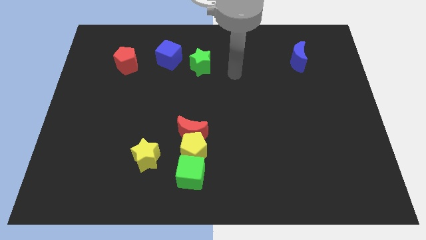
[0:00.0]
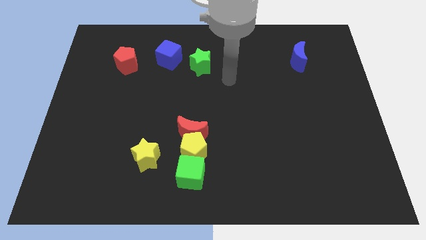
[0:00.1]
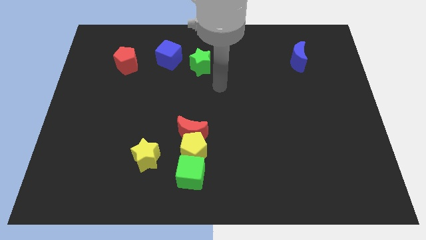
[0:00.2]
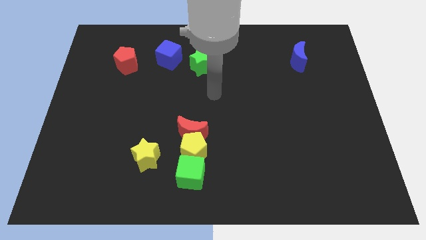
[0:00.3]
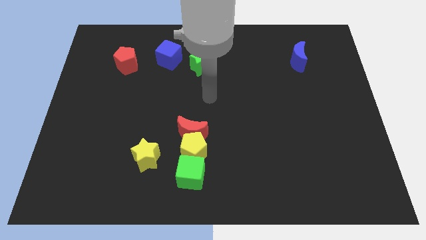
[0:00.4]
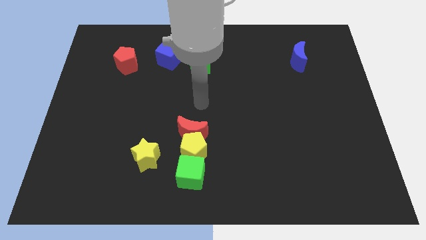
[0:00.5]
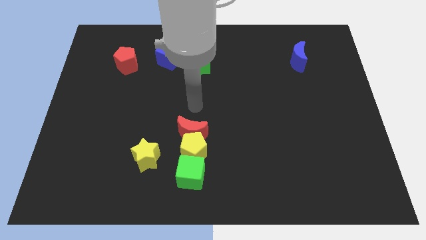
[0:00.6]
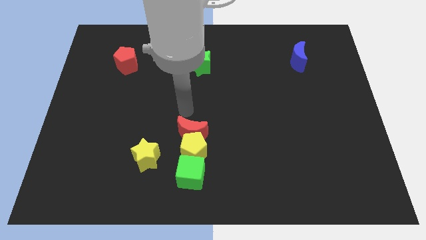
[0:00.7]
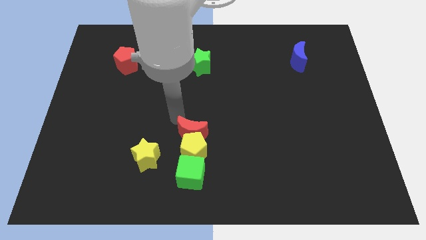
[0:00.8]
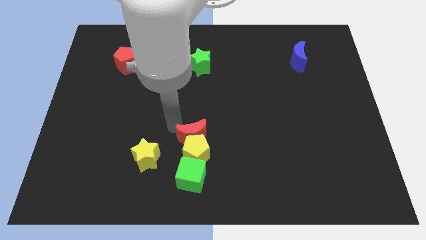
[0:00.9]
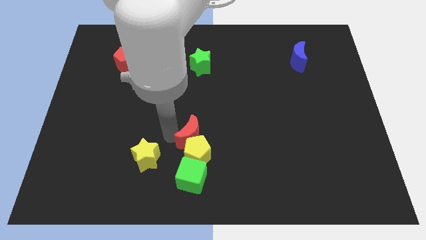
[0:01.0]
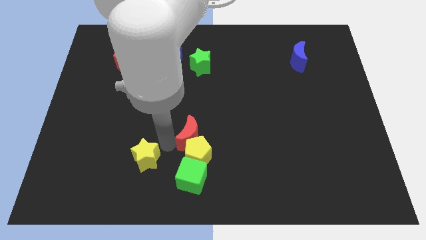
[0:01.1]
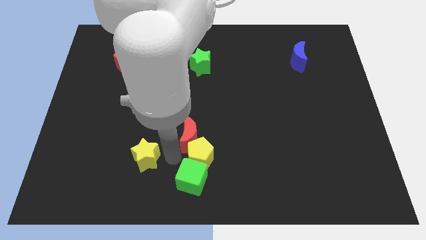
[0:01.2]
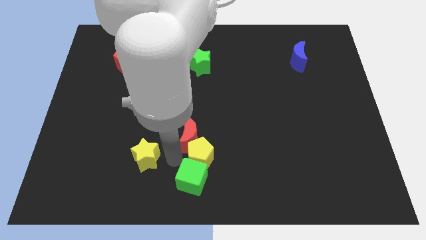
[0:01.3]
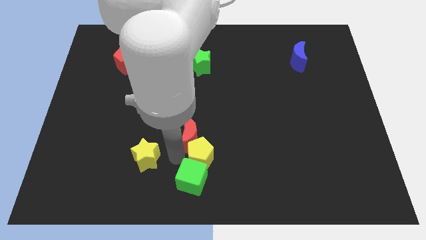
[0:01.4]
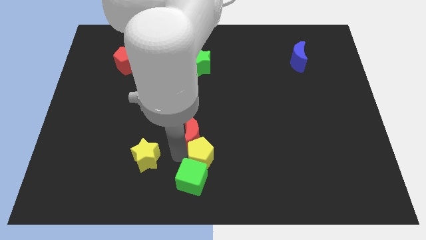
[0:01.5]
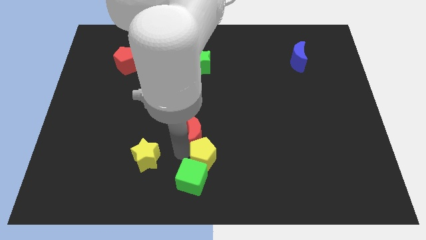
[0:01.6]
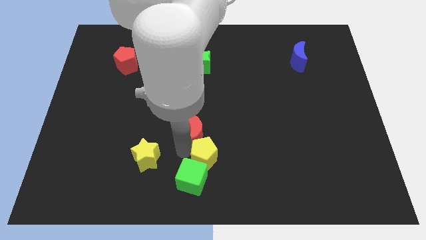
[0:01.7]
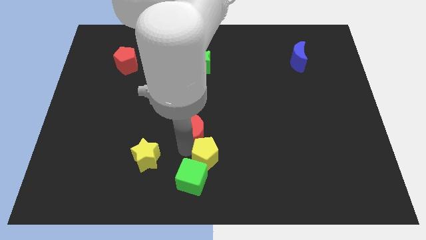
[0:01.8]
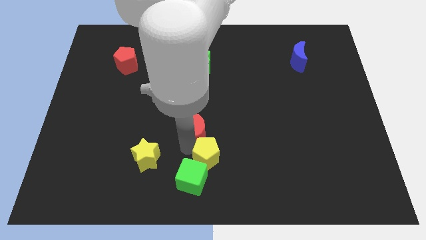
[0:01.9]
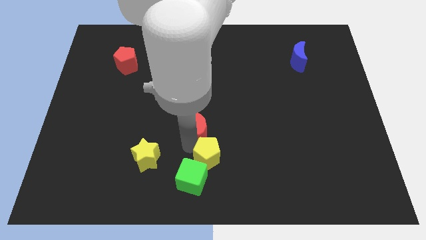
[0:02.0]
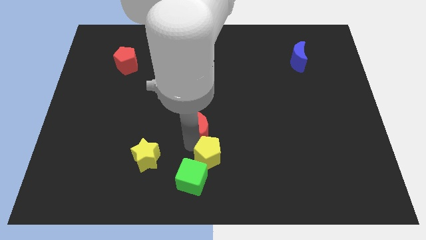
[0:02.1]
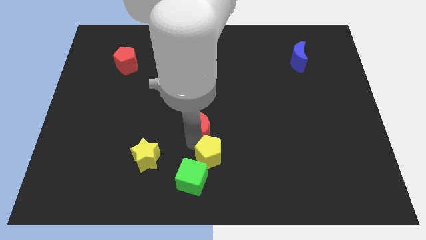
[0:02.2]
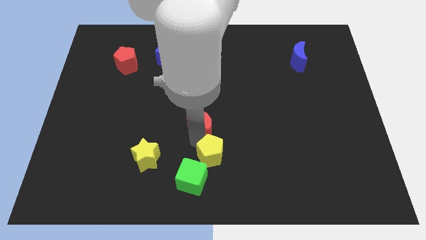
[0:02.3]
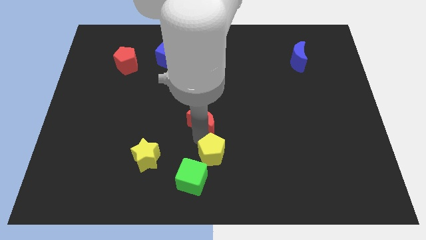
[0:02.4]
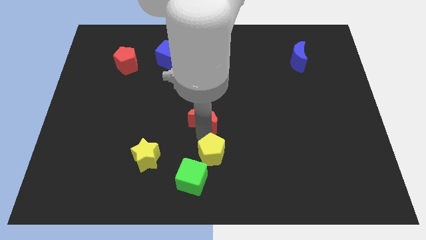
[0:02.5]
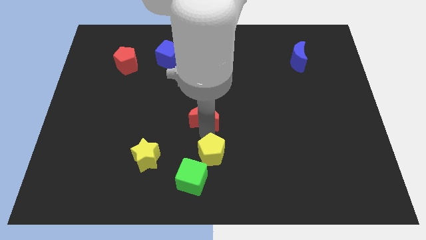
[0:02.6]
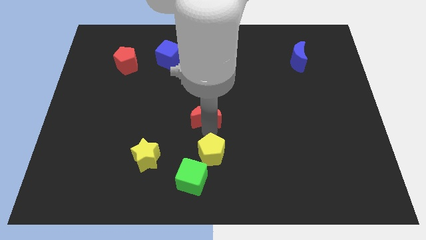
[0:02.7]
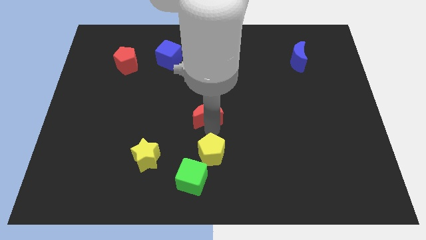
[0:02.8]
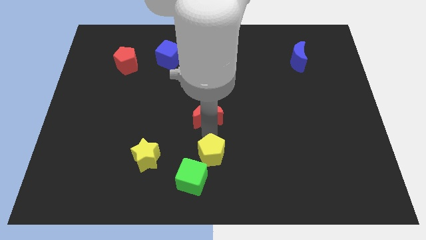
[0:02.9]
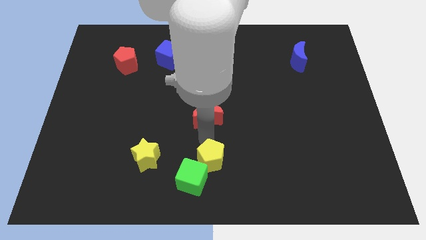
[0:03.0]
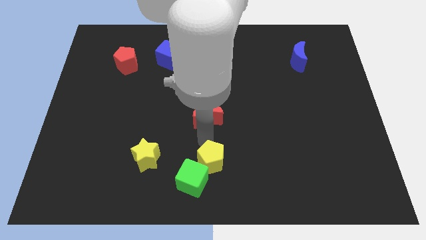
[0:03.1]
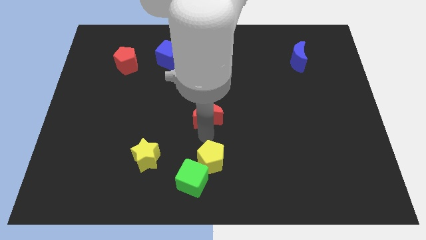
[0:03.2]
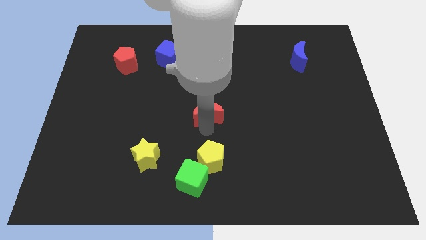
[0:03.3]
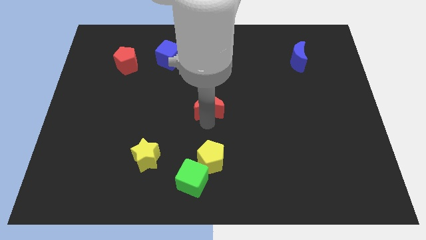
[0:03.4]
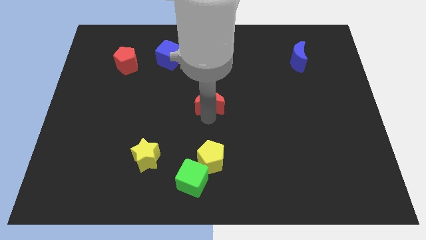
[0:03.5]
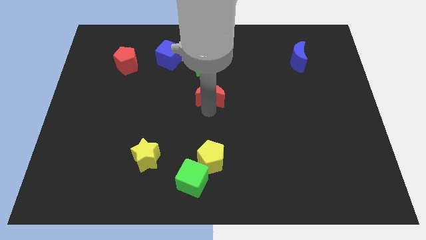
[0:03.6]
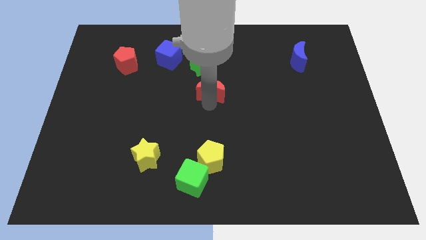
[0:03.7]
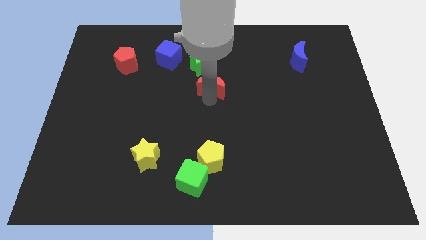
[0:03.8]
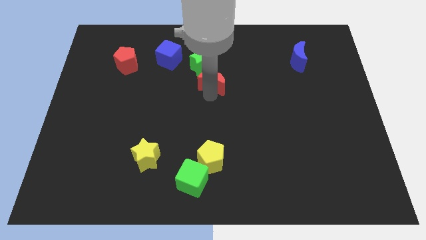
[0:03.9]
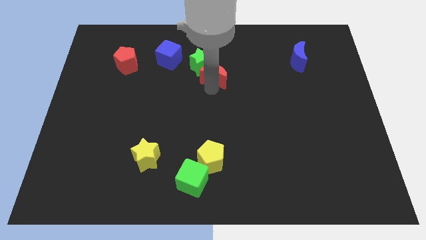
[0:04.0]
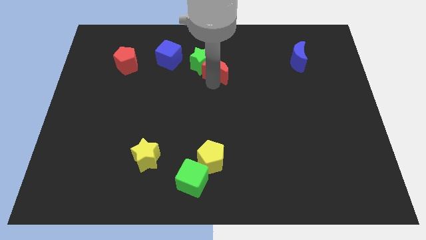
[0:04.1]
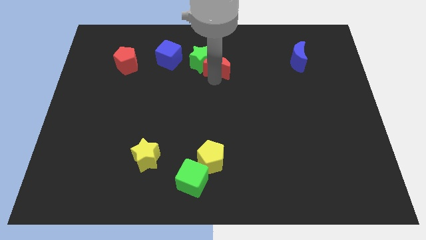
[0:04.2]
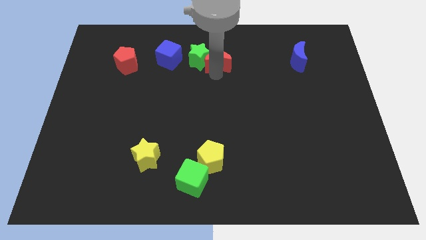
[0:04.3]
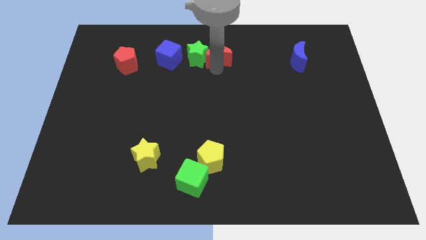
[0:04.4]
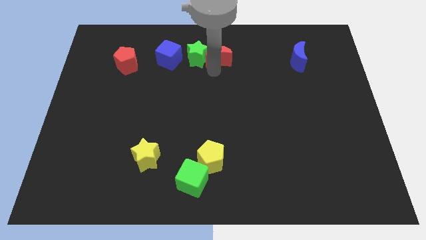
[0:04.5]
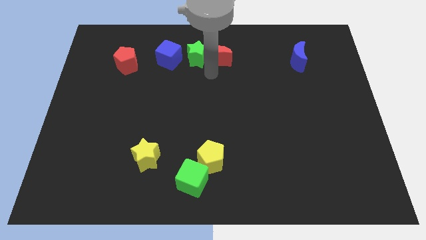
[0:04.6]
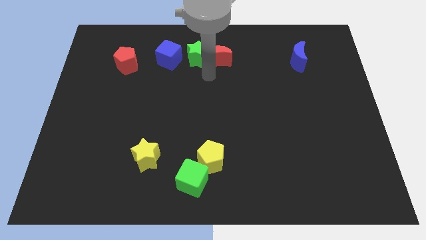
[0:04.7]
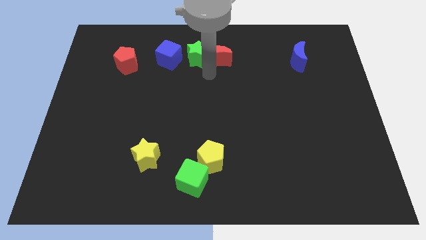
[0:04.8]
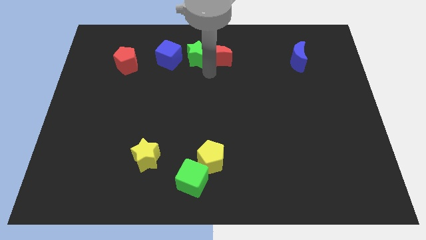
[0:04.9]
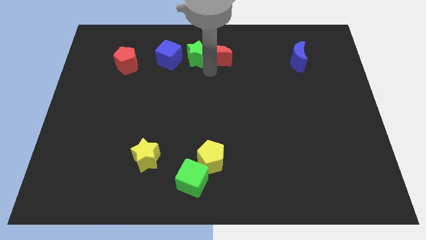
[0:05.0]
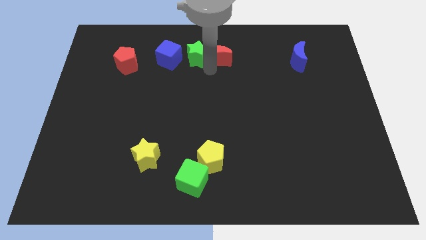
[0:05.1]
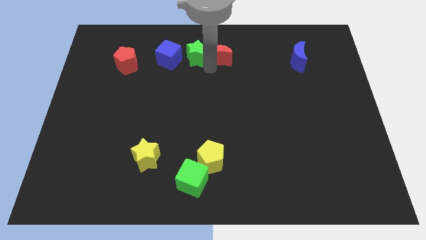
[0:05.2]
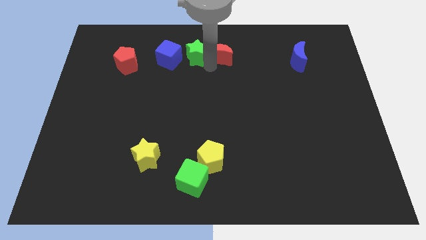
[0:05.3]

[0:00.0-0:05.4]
push the red moon to the towards your base
